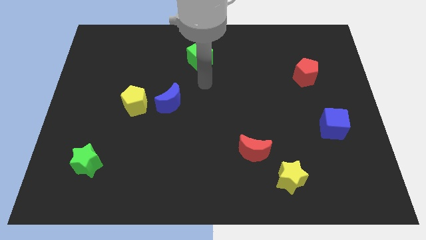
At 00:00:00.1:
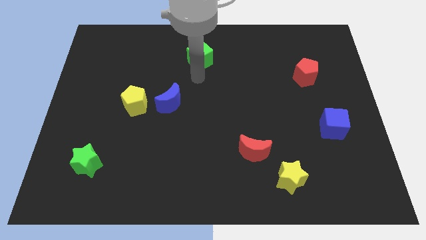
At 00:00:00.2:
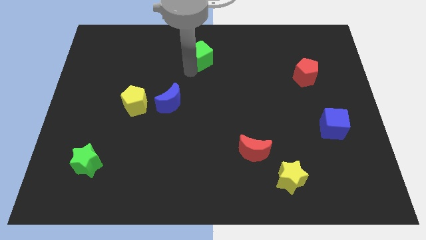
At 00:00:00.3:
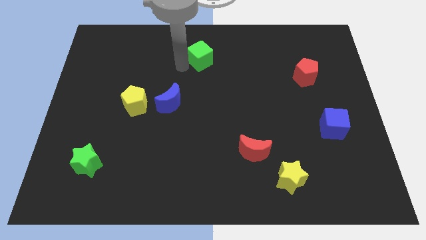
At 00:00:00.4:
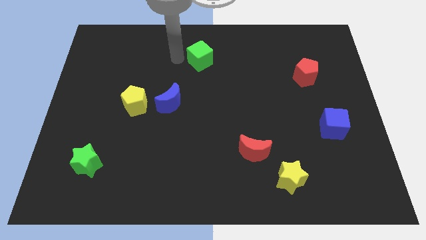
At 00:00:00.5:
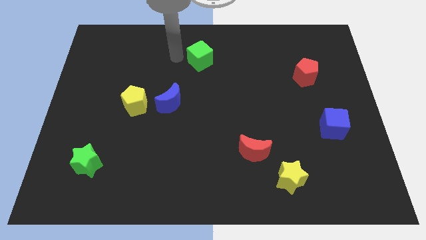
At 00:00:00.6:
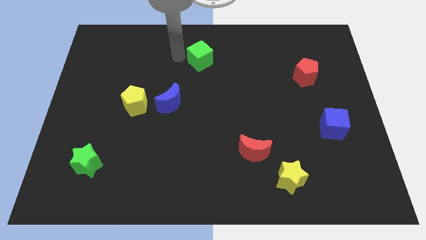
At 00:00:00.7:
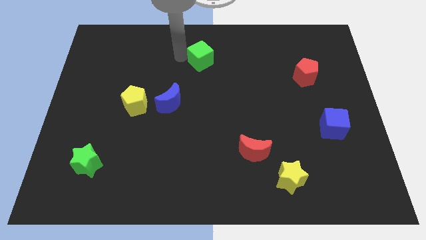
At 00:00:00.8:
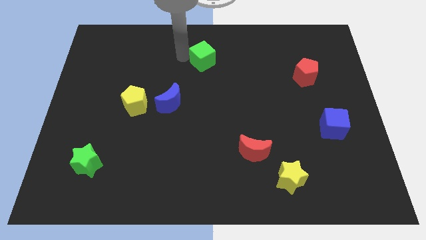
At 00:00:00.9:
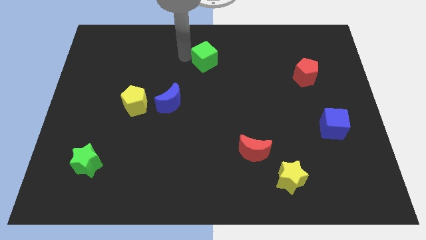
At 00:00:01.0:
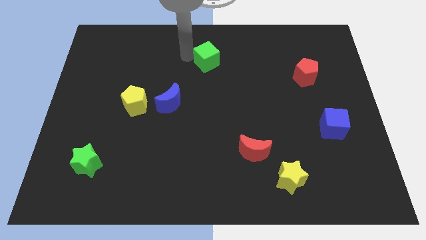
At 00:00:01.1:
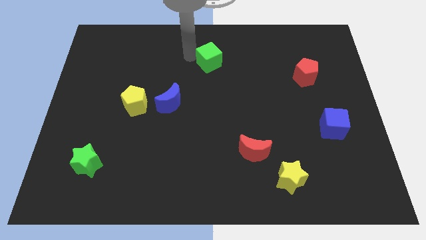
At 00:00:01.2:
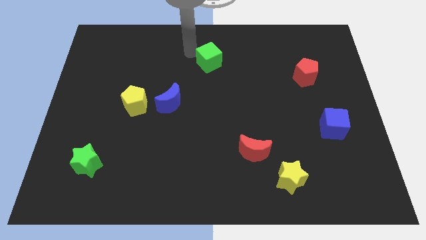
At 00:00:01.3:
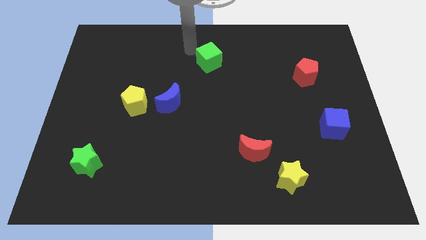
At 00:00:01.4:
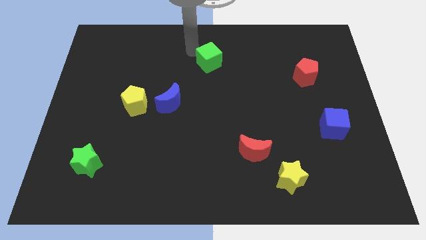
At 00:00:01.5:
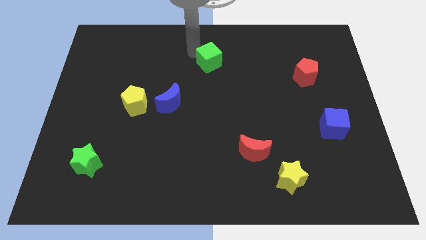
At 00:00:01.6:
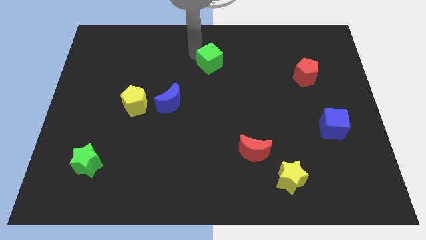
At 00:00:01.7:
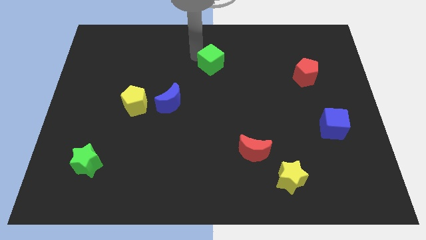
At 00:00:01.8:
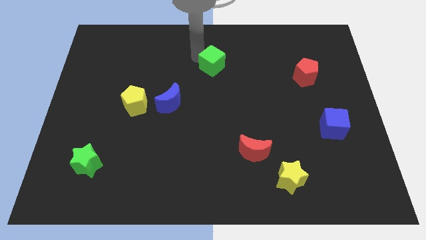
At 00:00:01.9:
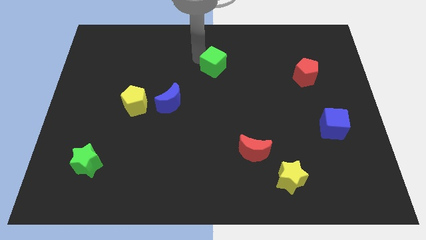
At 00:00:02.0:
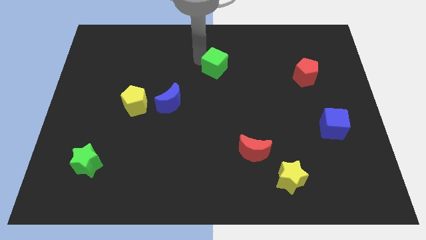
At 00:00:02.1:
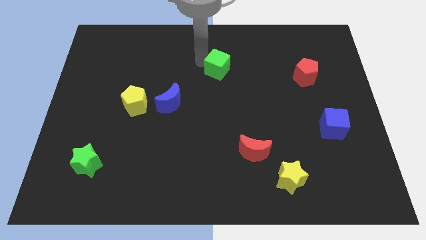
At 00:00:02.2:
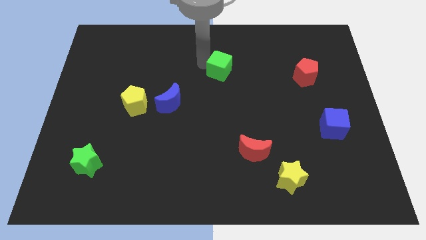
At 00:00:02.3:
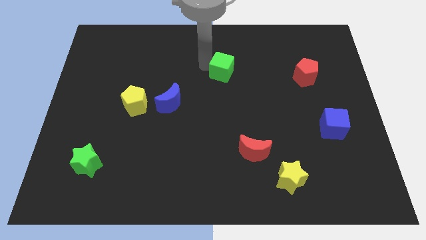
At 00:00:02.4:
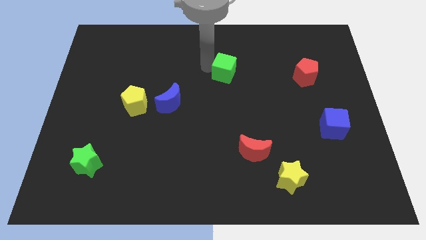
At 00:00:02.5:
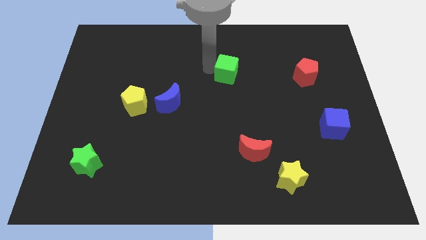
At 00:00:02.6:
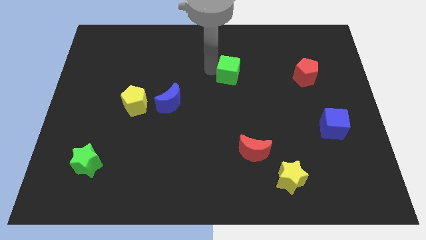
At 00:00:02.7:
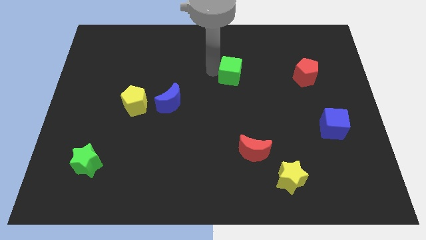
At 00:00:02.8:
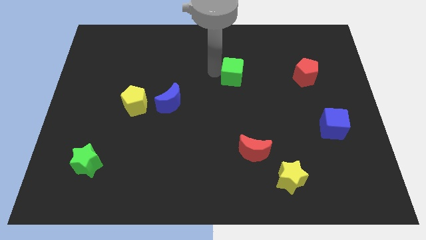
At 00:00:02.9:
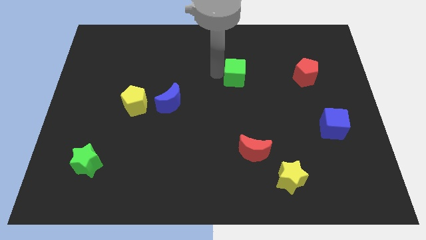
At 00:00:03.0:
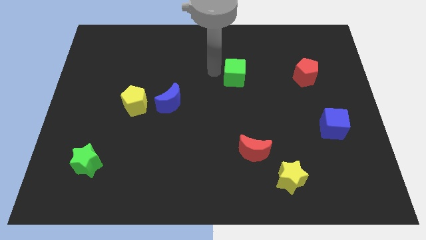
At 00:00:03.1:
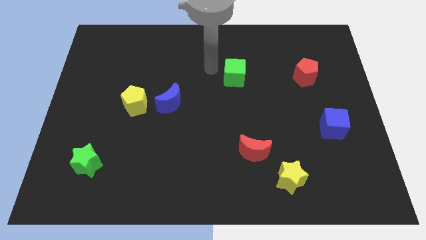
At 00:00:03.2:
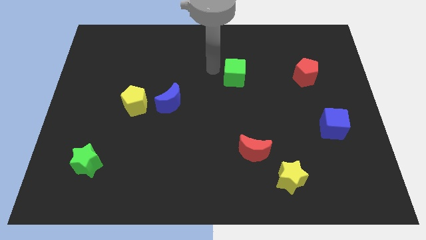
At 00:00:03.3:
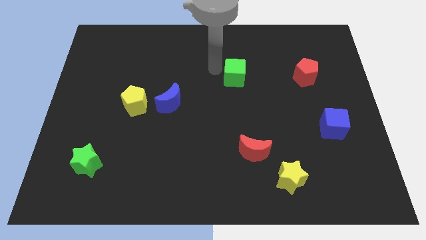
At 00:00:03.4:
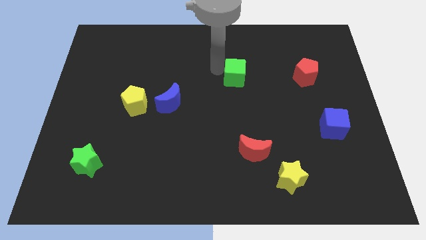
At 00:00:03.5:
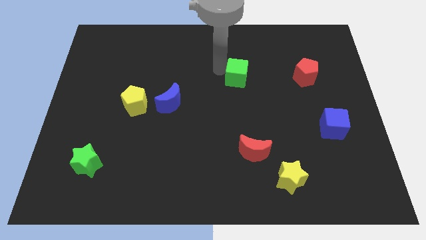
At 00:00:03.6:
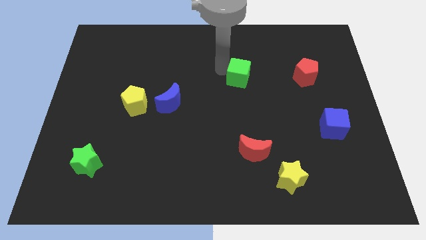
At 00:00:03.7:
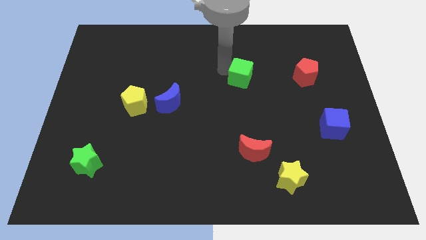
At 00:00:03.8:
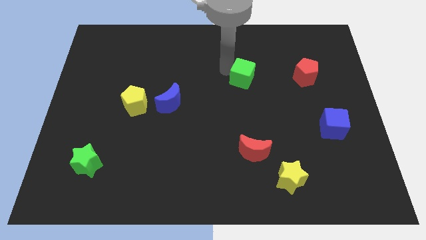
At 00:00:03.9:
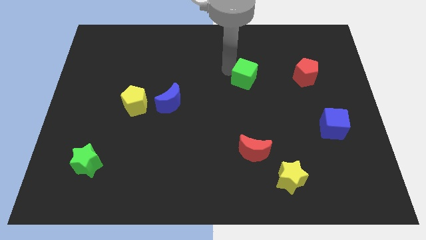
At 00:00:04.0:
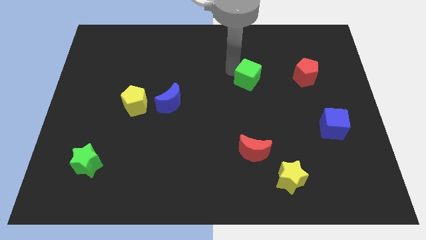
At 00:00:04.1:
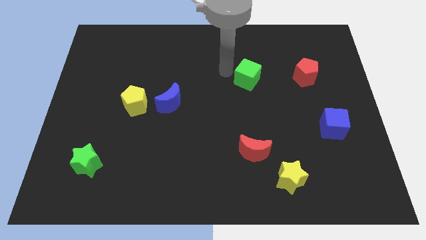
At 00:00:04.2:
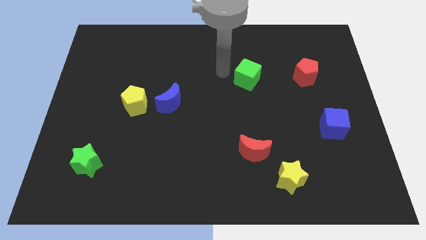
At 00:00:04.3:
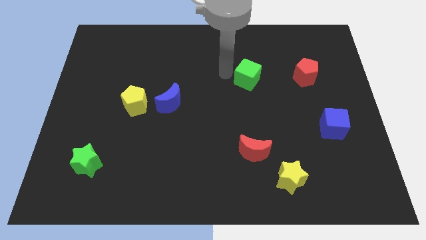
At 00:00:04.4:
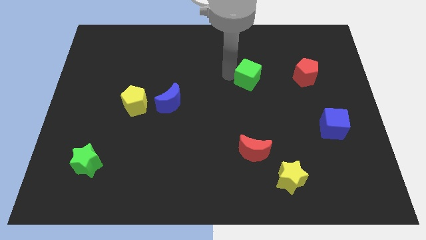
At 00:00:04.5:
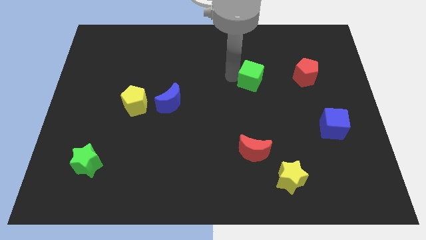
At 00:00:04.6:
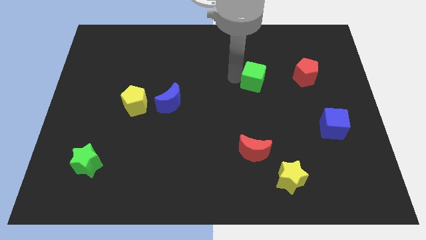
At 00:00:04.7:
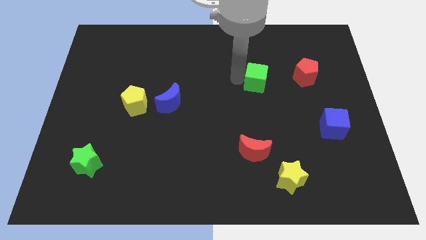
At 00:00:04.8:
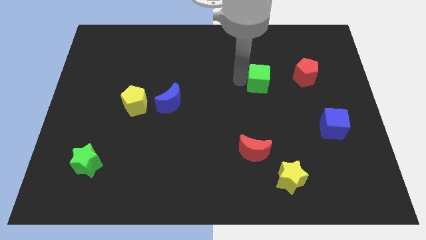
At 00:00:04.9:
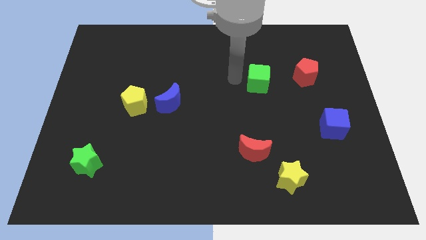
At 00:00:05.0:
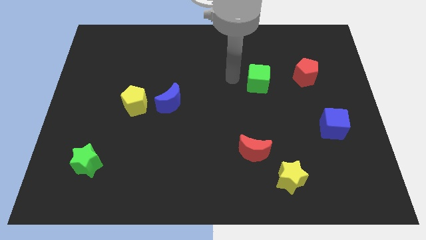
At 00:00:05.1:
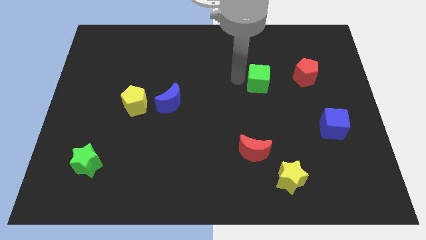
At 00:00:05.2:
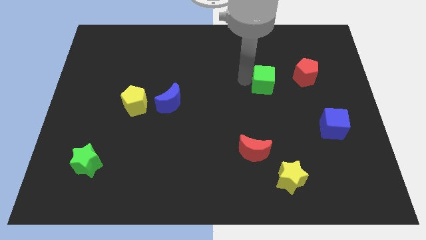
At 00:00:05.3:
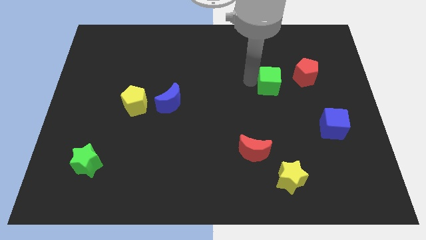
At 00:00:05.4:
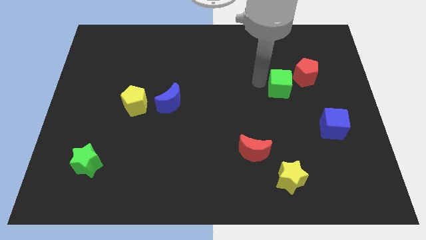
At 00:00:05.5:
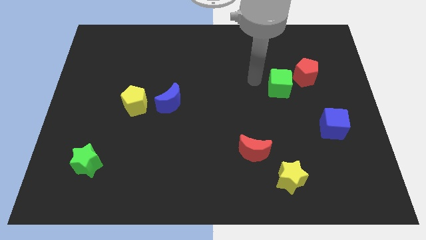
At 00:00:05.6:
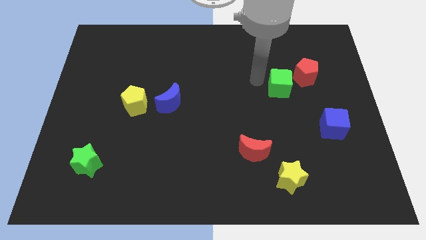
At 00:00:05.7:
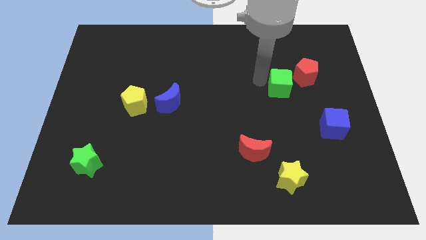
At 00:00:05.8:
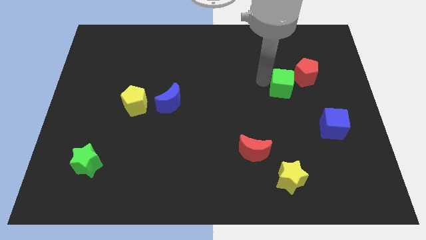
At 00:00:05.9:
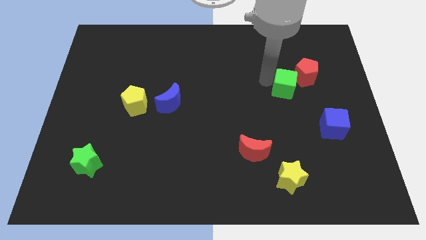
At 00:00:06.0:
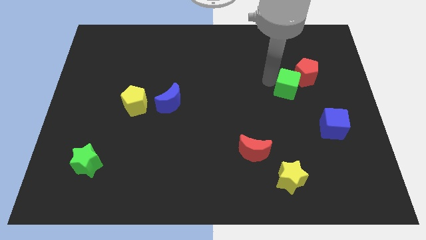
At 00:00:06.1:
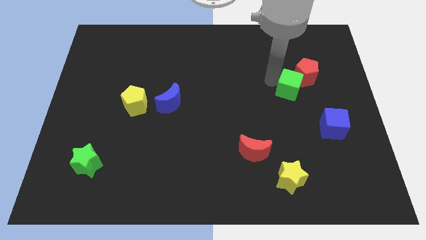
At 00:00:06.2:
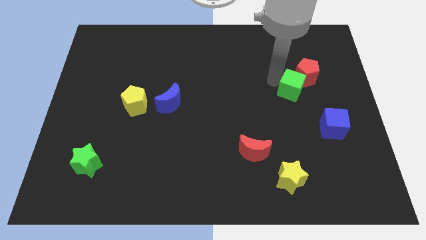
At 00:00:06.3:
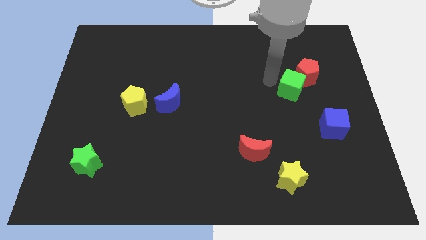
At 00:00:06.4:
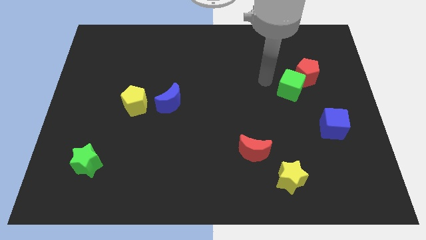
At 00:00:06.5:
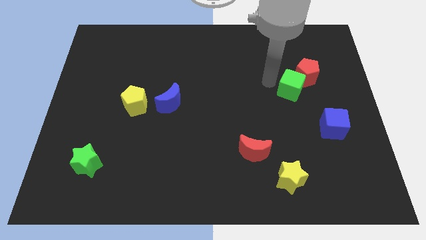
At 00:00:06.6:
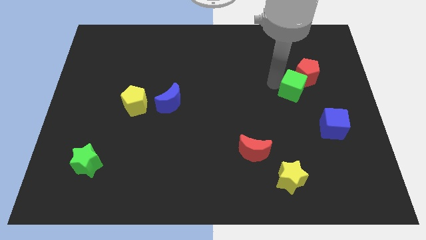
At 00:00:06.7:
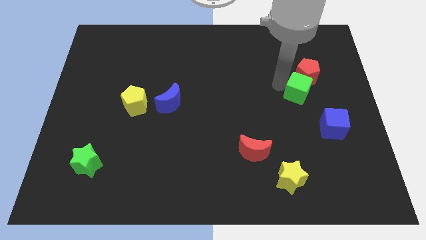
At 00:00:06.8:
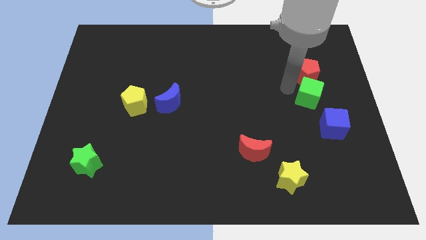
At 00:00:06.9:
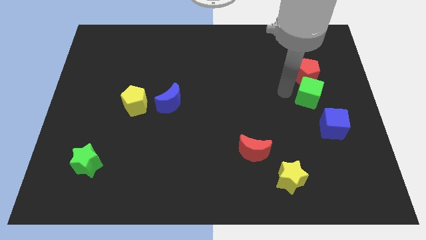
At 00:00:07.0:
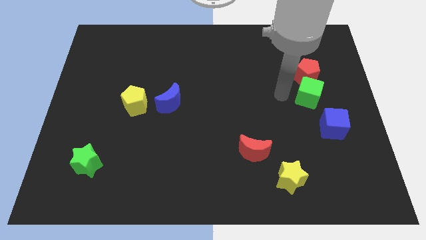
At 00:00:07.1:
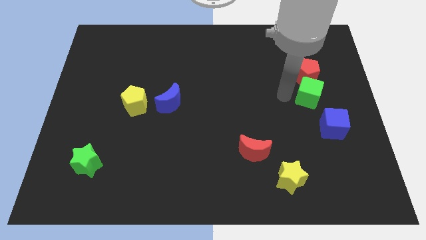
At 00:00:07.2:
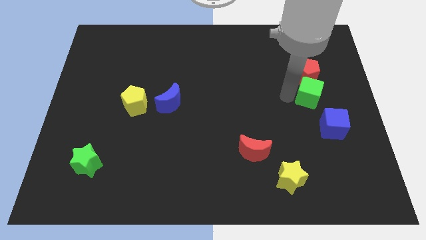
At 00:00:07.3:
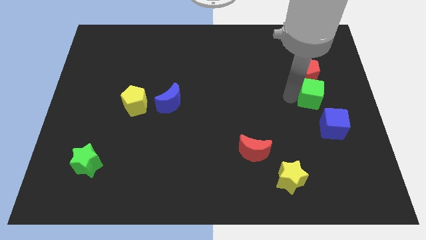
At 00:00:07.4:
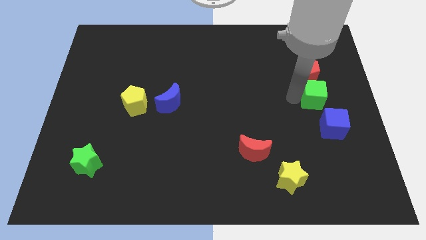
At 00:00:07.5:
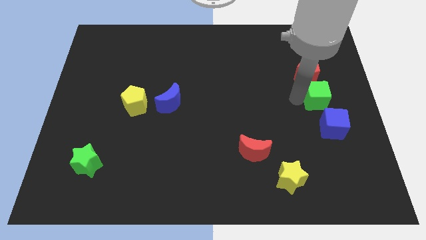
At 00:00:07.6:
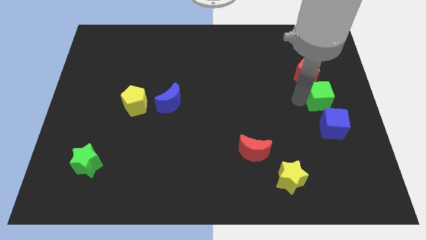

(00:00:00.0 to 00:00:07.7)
slide the green cube to the right side of the board
